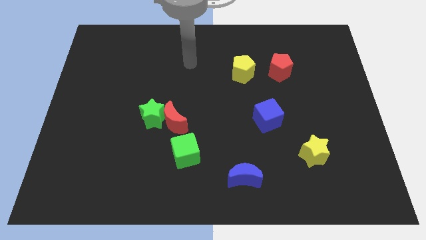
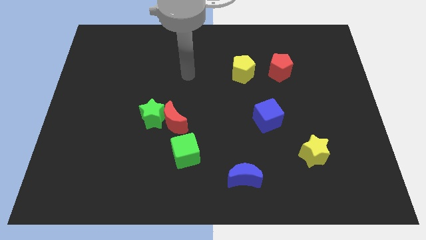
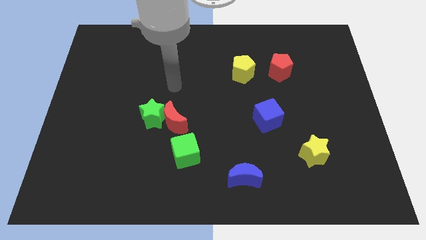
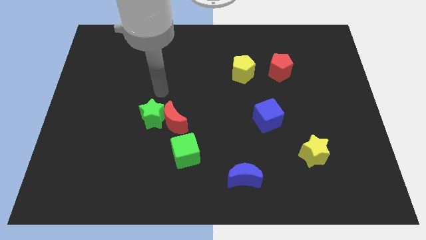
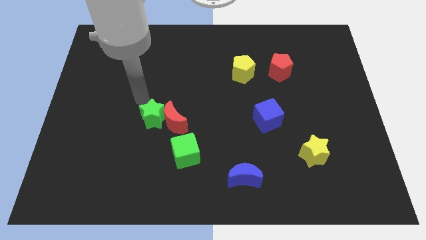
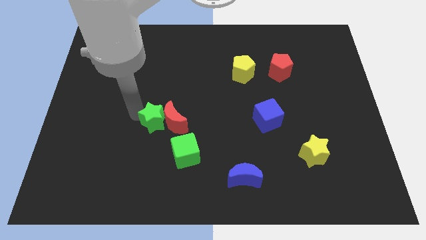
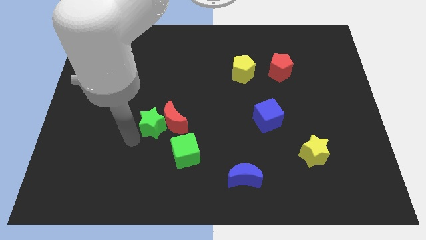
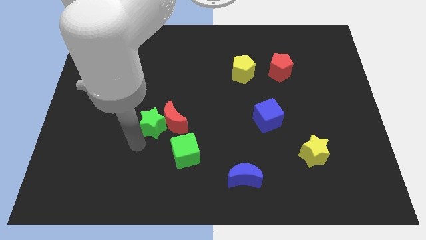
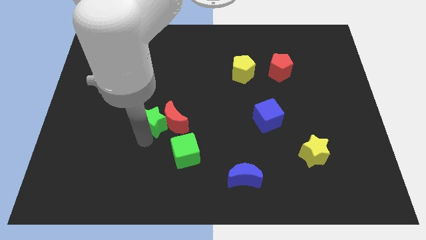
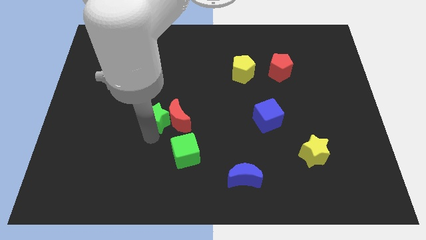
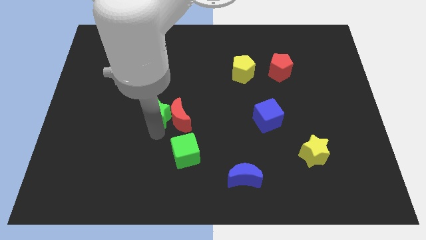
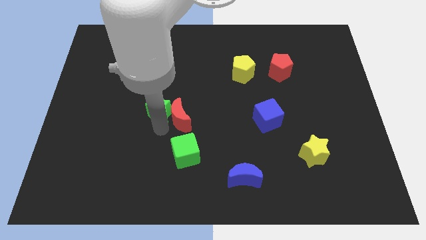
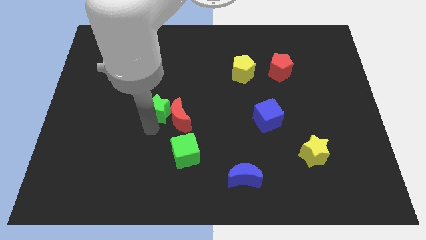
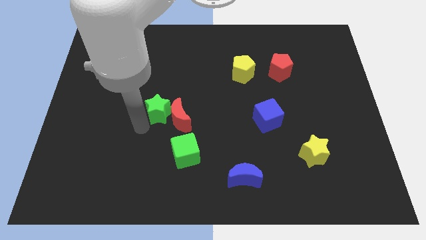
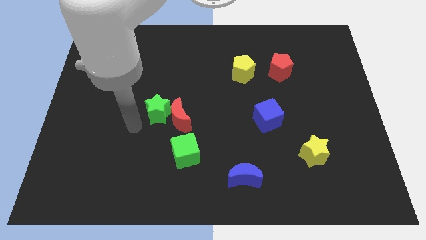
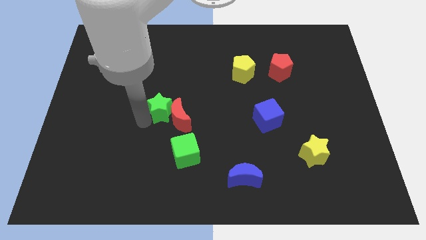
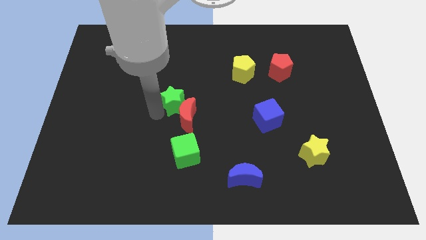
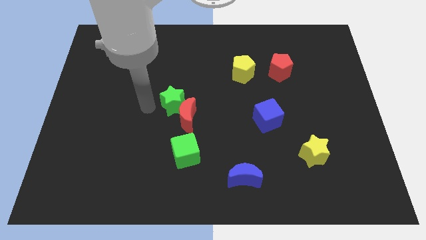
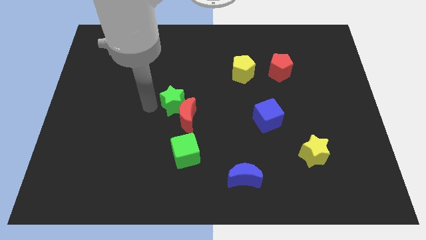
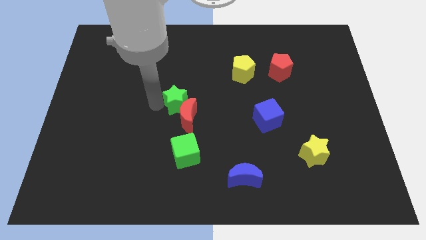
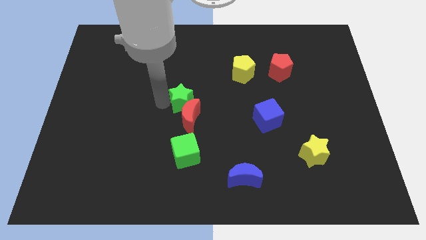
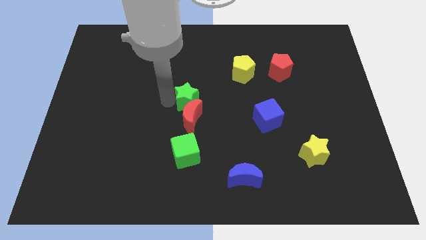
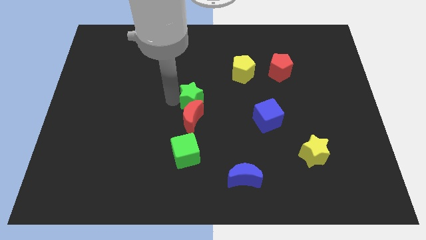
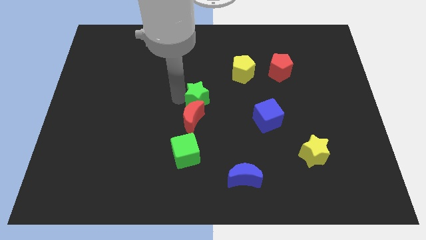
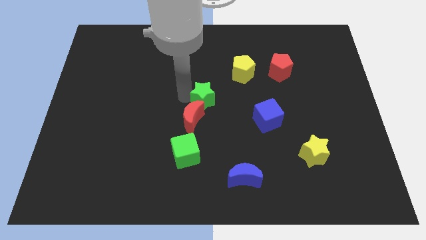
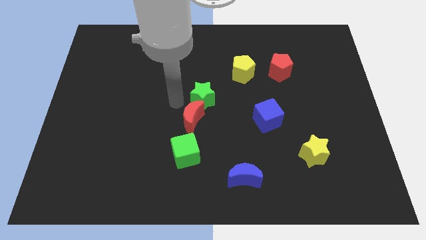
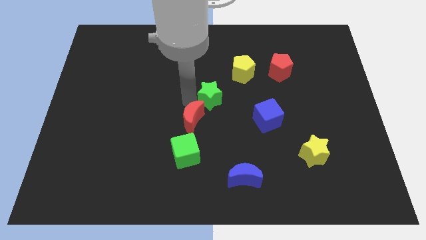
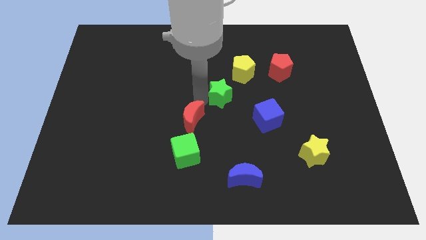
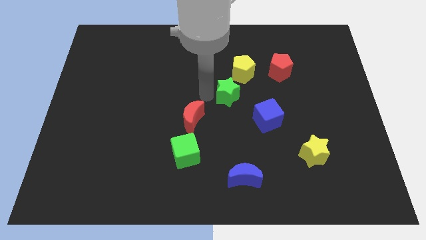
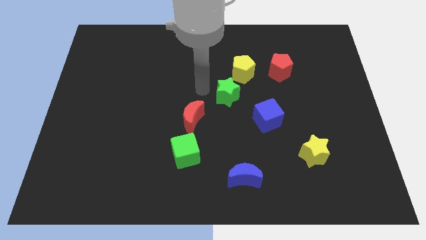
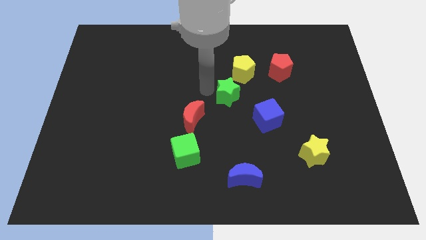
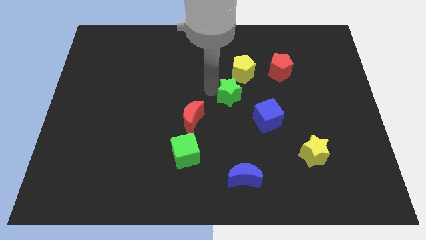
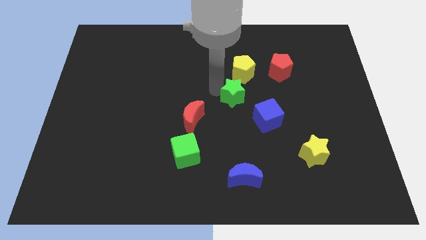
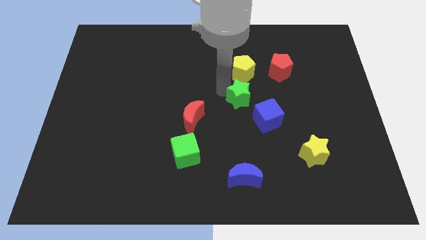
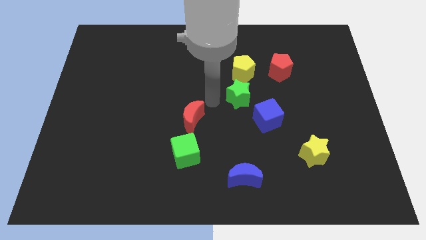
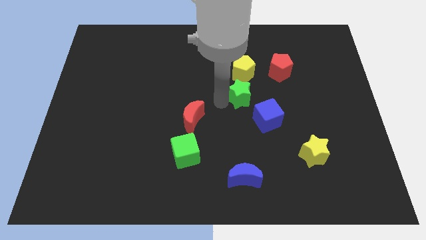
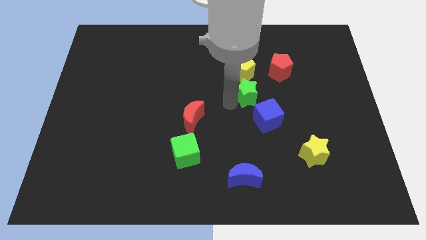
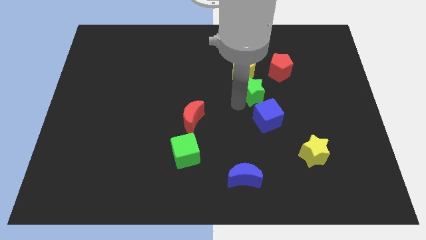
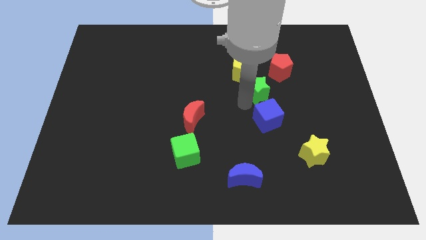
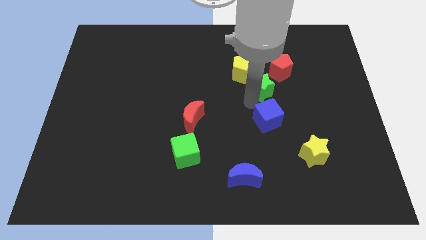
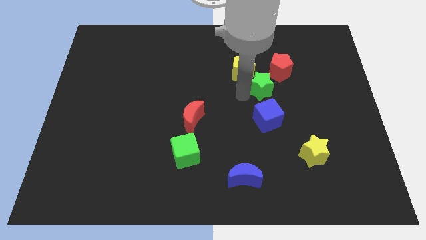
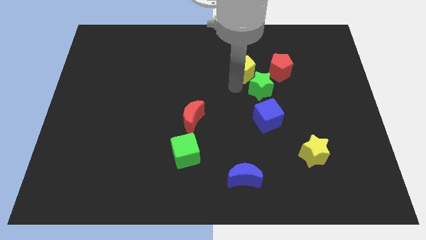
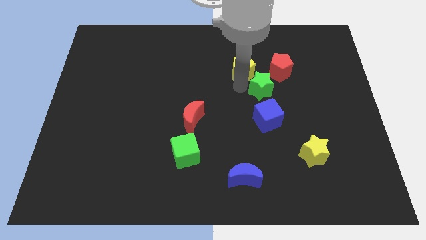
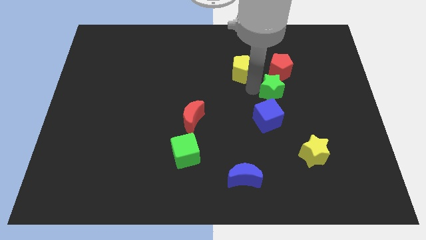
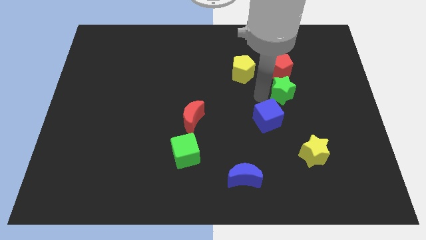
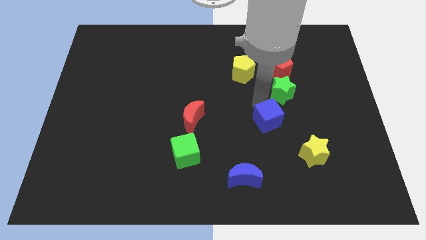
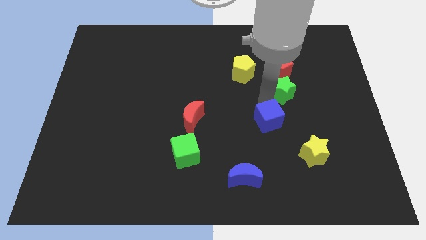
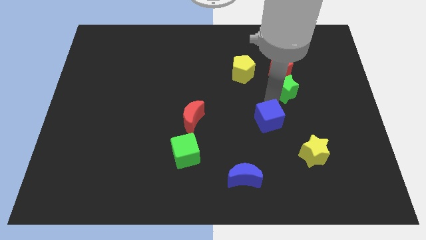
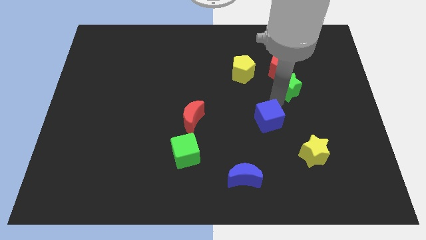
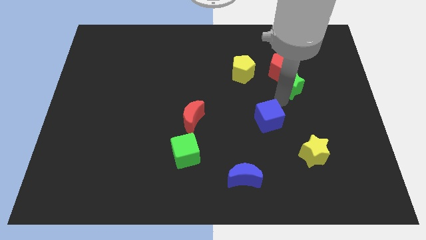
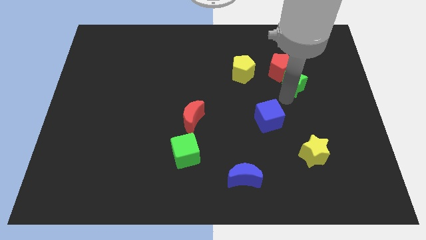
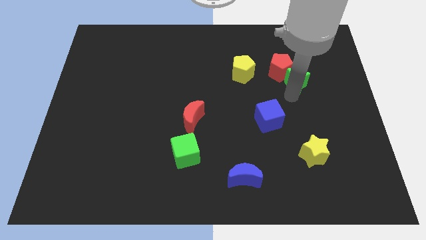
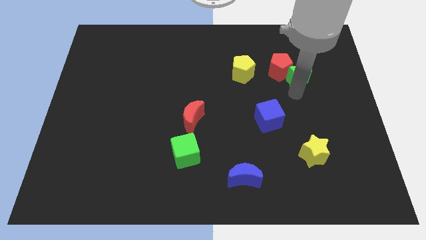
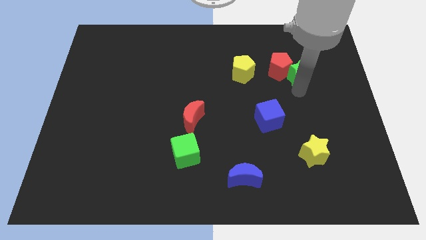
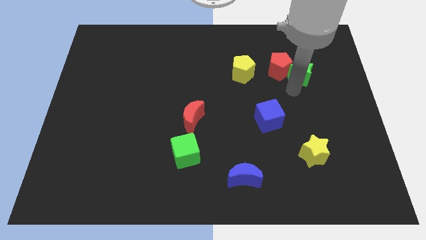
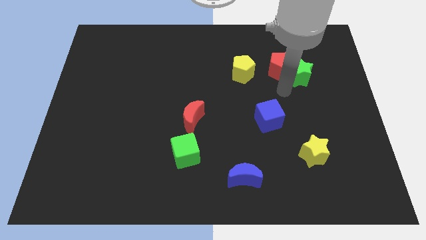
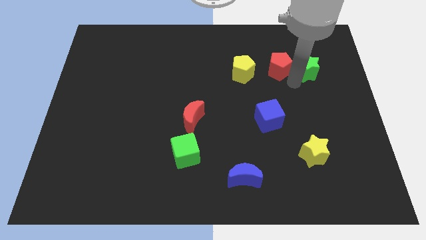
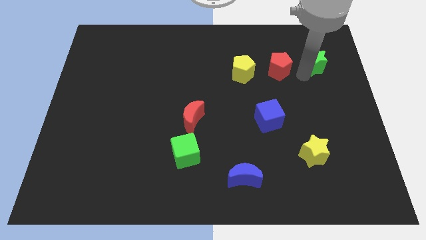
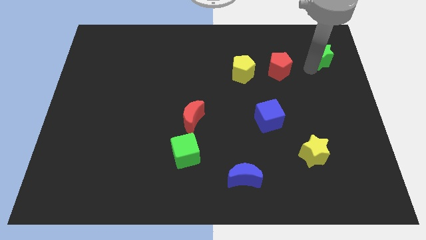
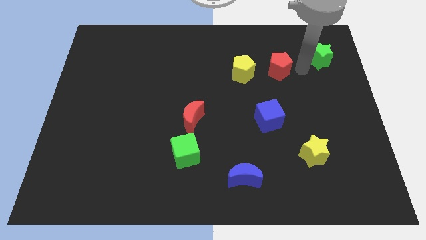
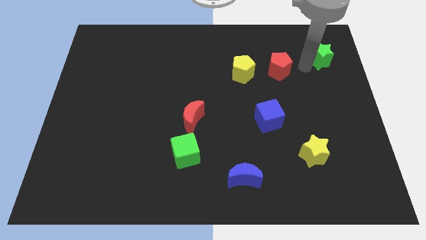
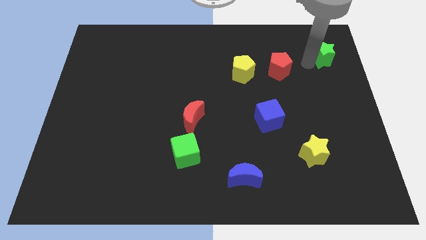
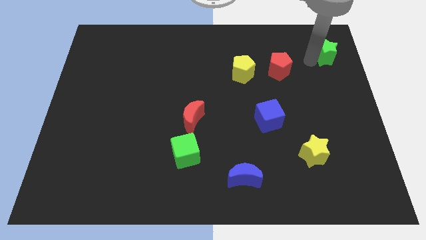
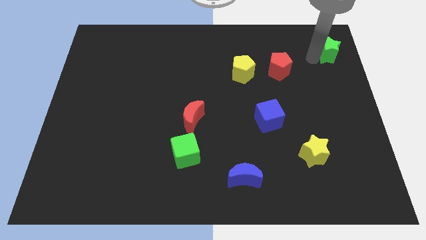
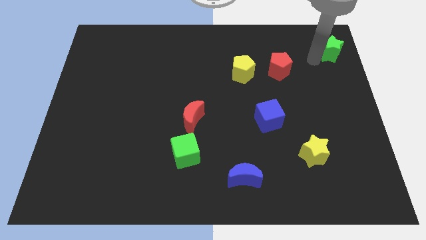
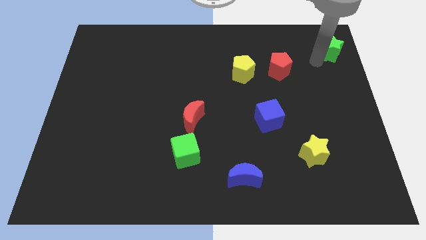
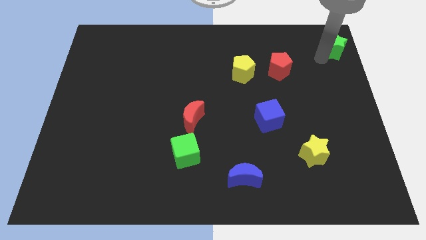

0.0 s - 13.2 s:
put the green star to the top right of the board
